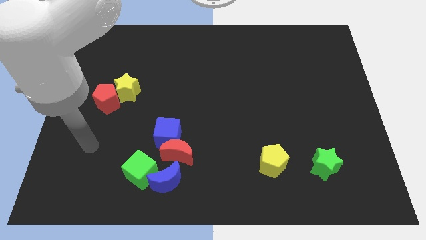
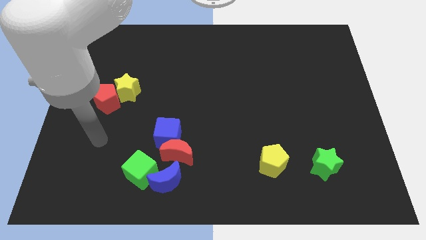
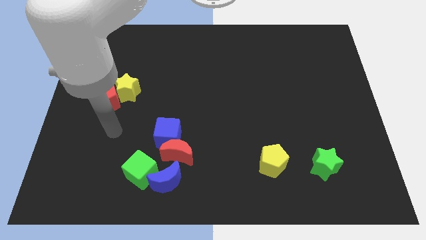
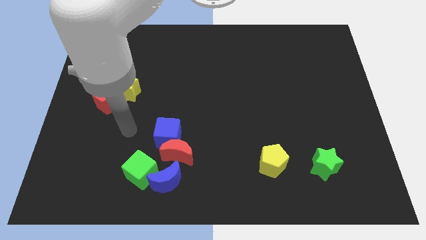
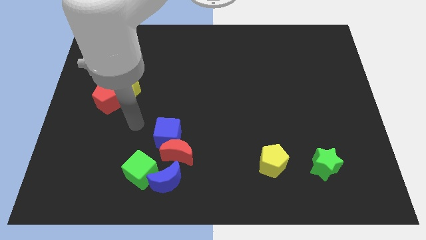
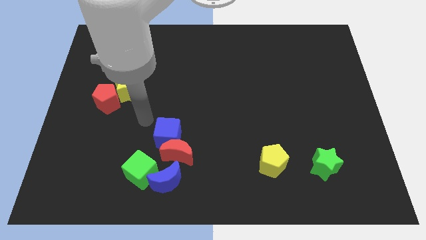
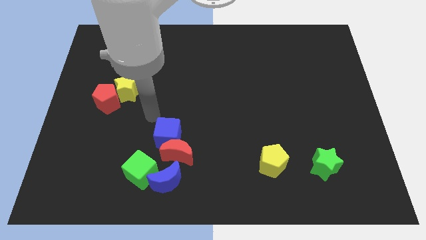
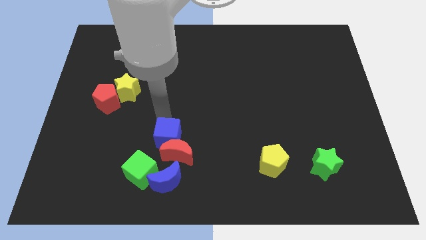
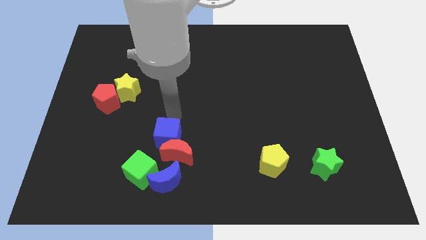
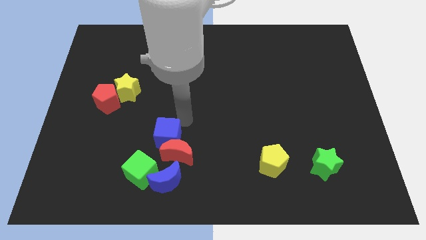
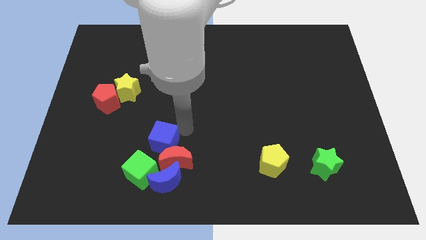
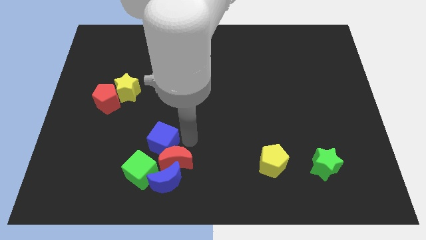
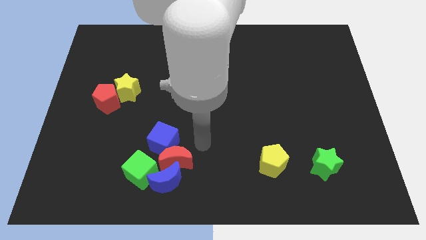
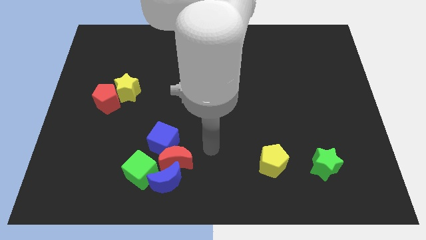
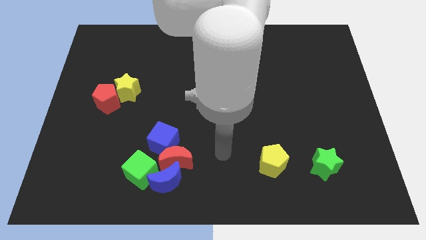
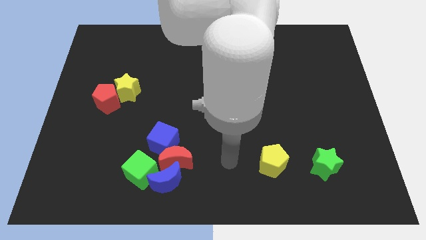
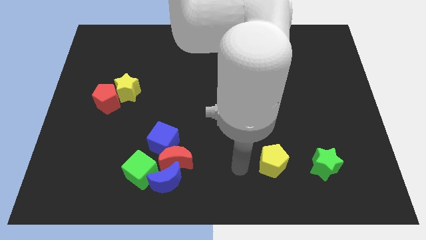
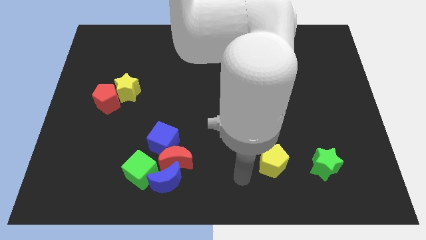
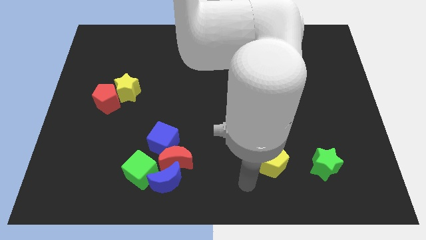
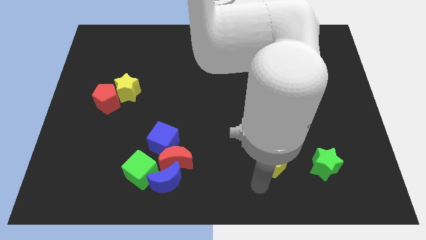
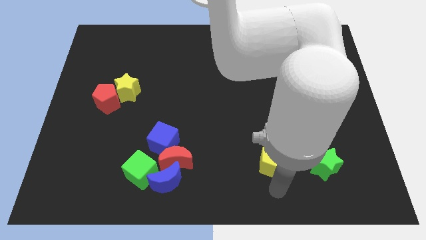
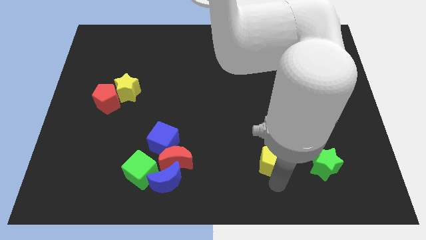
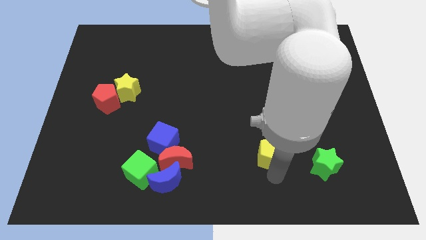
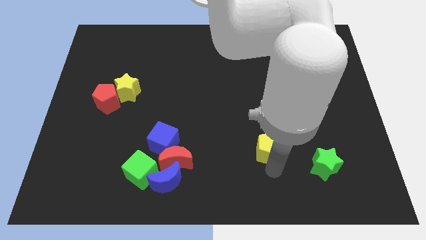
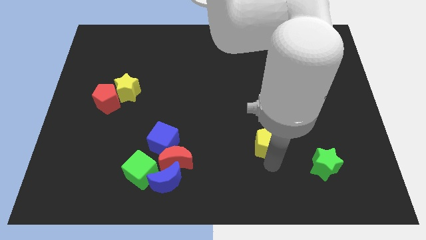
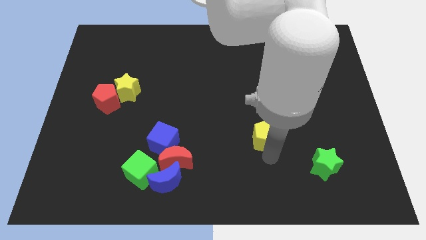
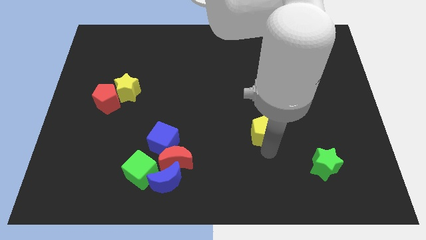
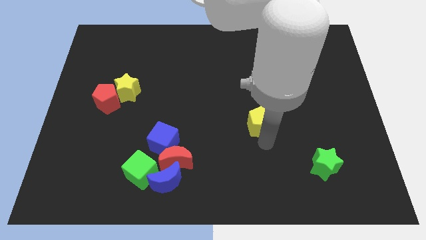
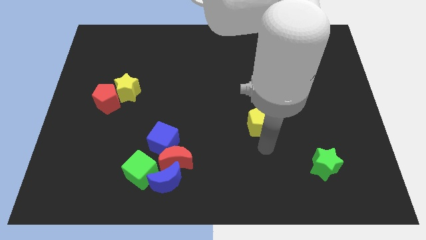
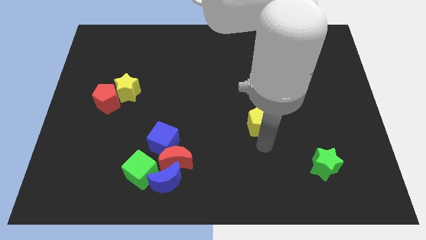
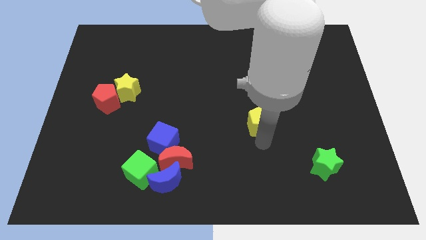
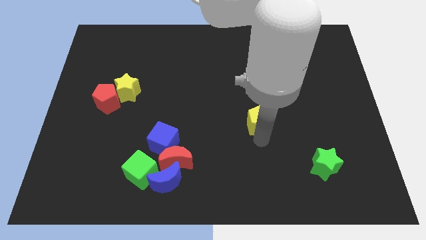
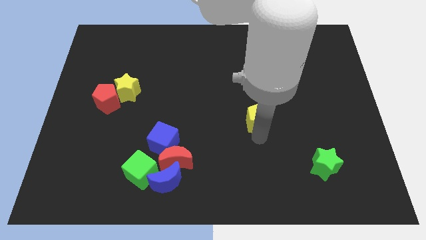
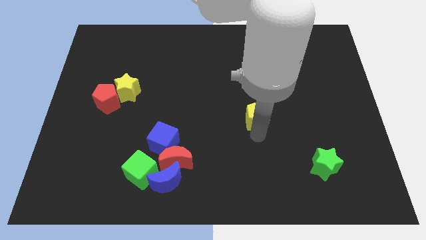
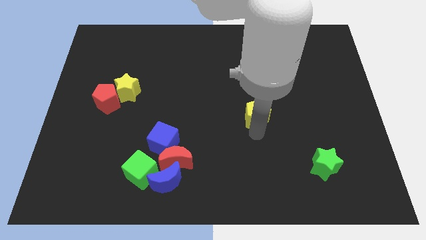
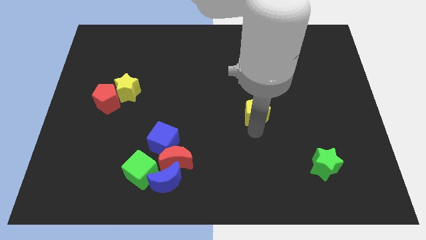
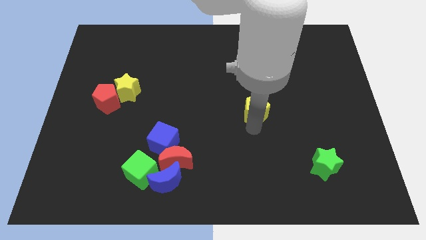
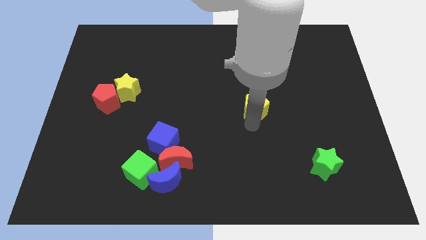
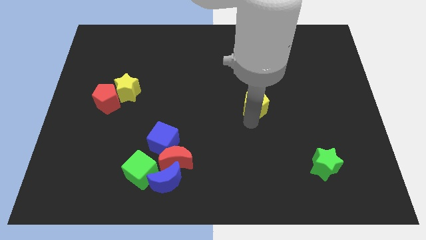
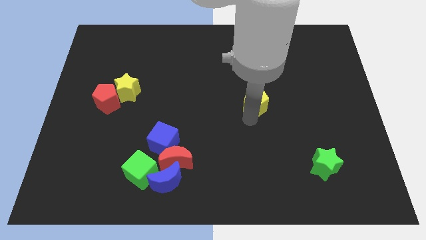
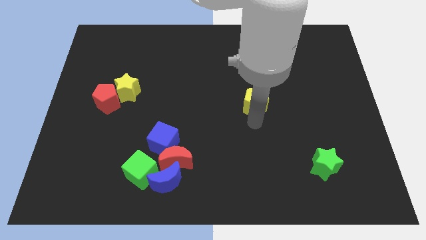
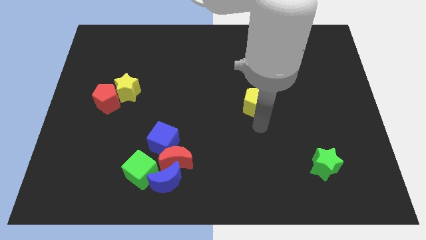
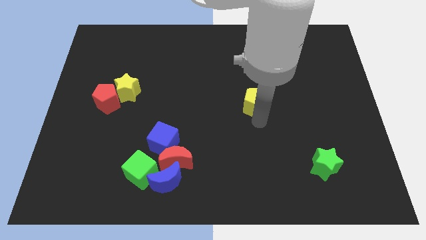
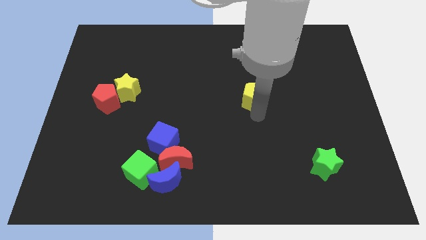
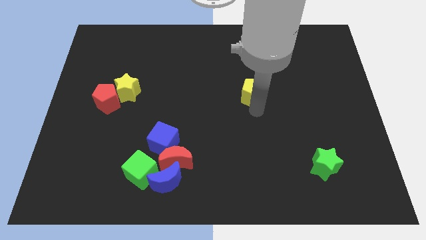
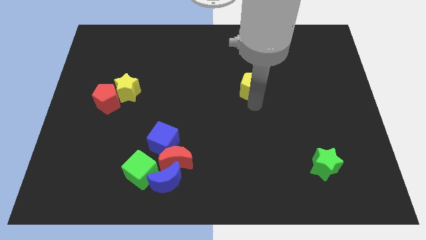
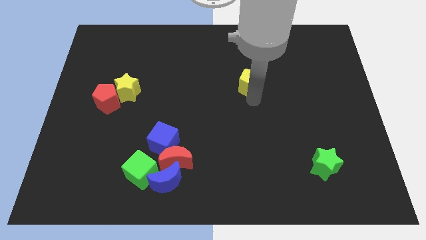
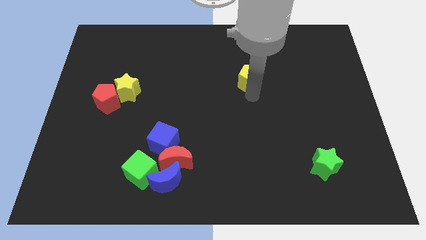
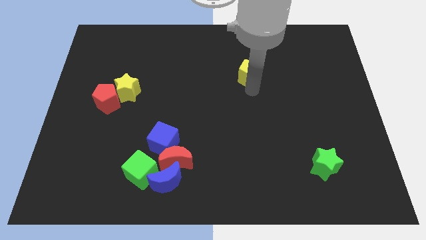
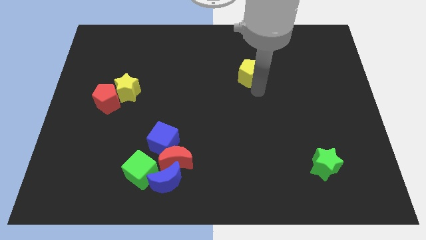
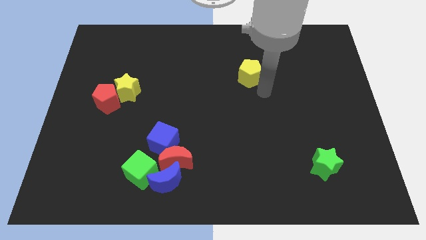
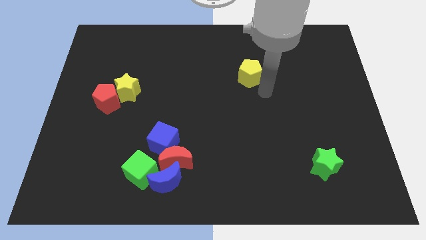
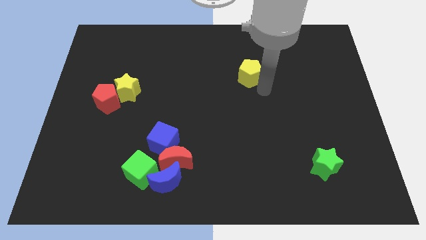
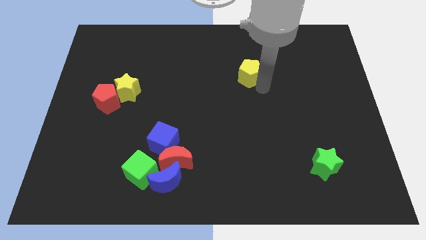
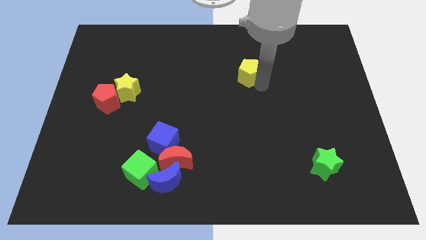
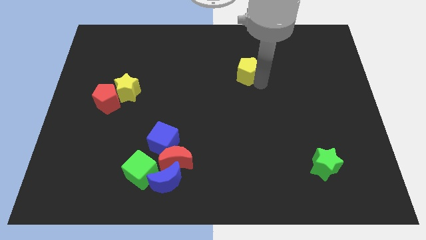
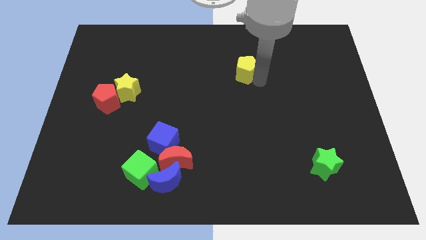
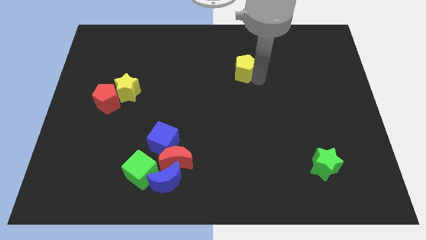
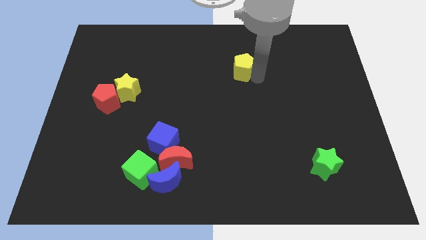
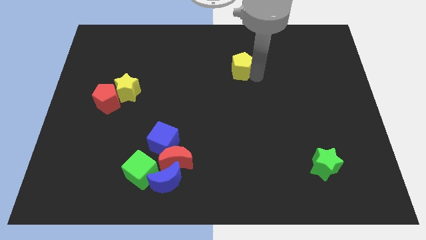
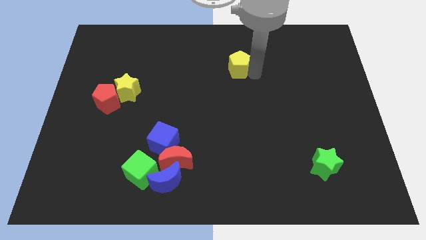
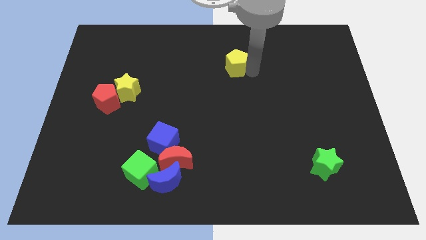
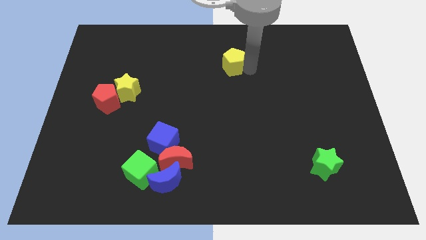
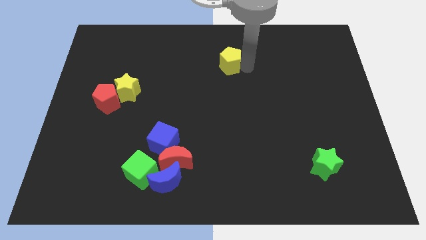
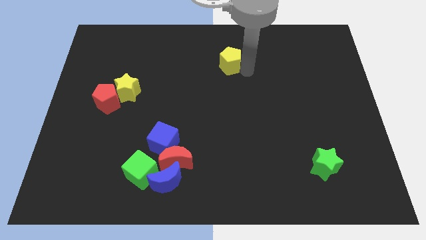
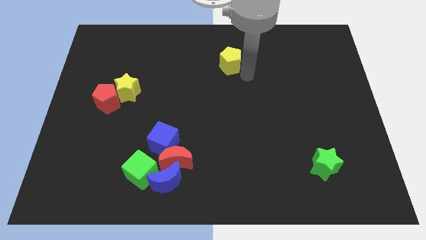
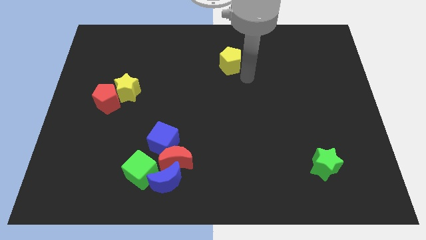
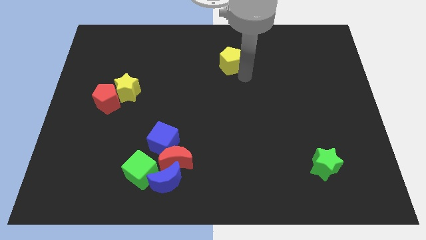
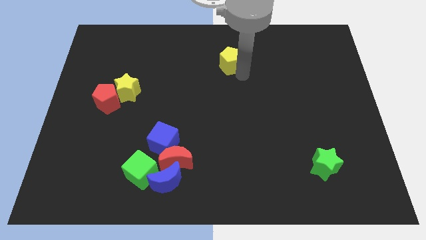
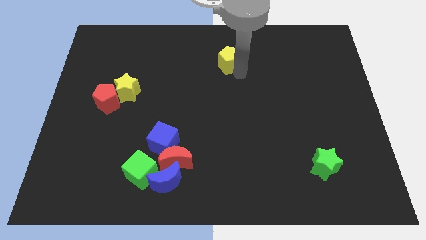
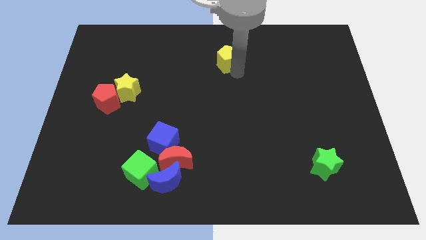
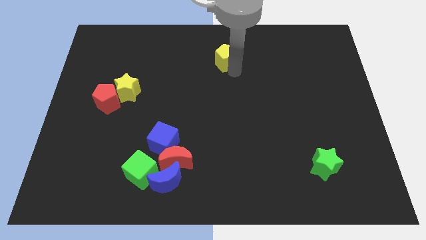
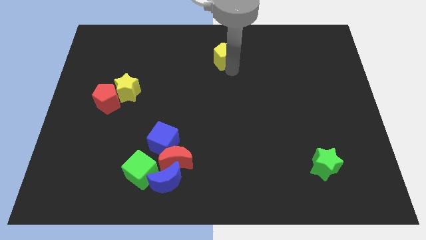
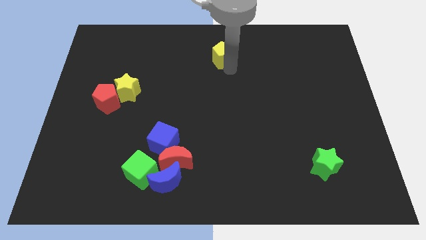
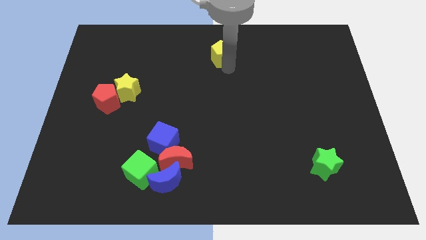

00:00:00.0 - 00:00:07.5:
move the yellow pentagon to the towards your base
